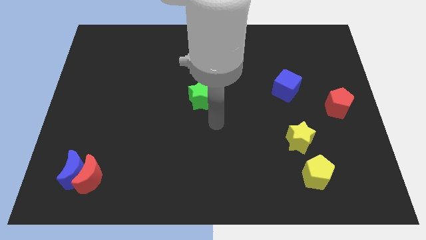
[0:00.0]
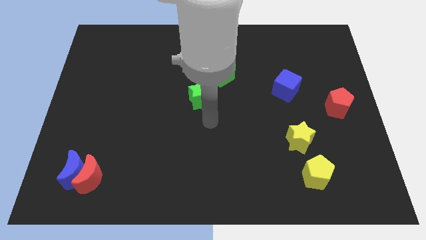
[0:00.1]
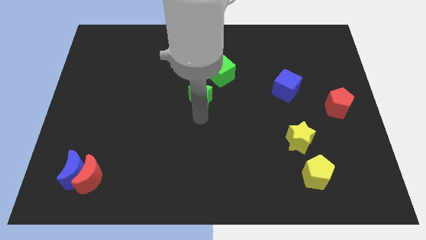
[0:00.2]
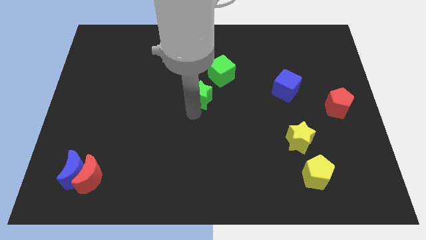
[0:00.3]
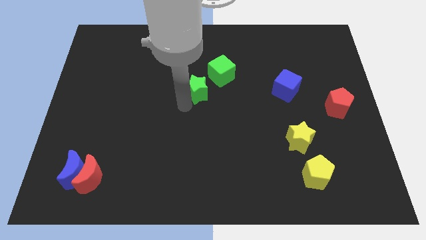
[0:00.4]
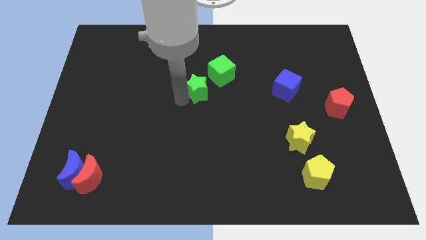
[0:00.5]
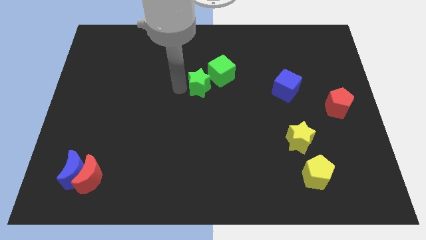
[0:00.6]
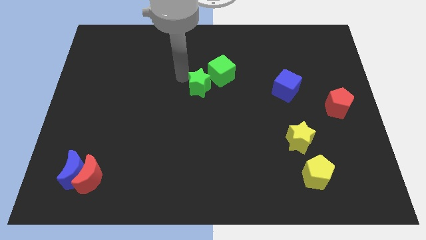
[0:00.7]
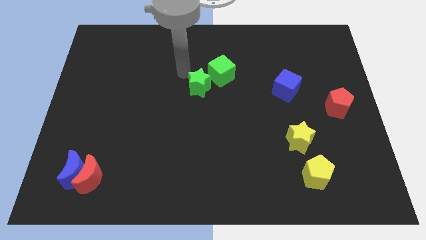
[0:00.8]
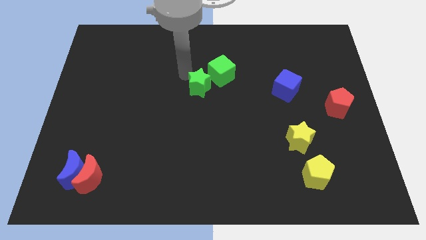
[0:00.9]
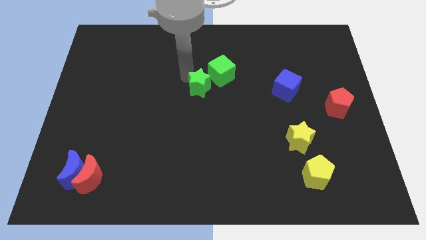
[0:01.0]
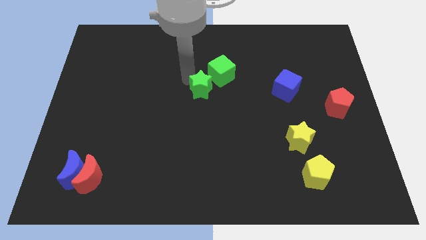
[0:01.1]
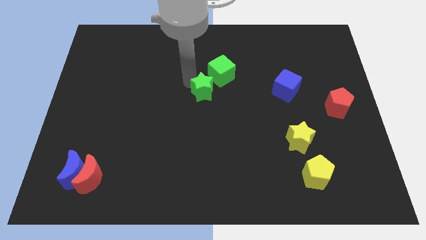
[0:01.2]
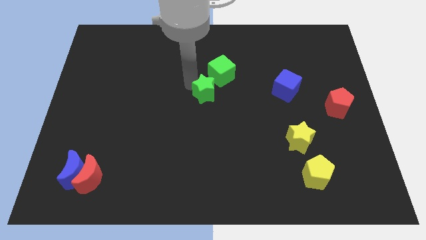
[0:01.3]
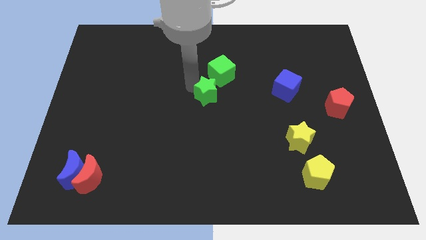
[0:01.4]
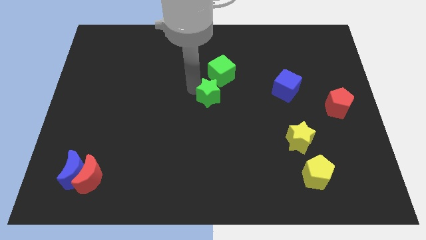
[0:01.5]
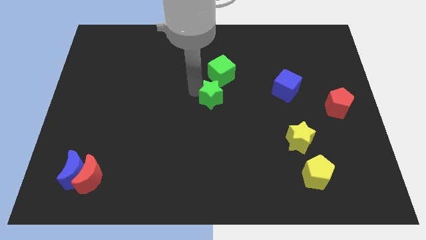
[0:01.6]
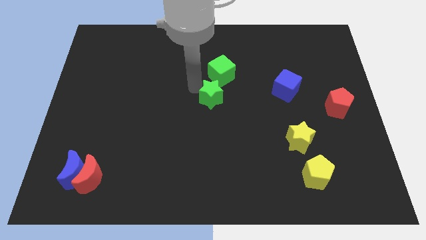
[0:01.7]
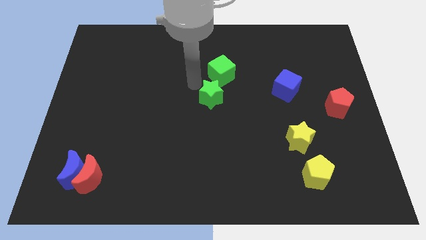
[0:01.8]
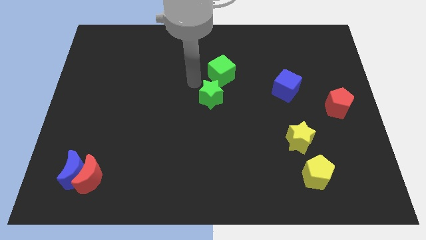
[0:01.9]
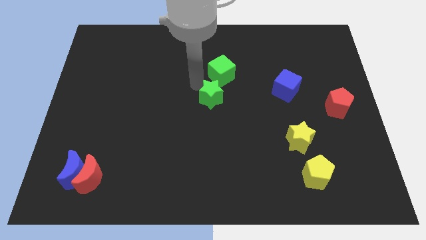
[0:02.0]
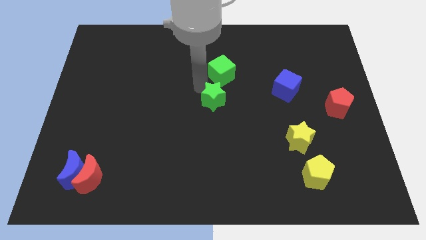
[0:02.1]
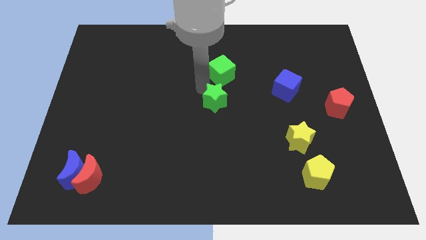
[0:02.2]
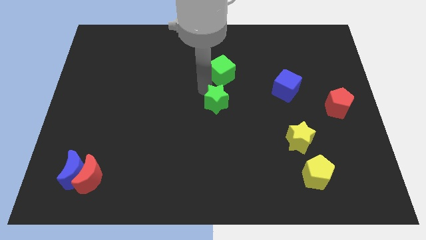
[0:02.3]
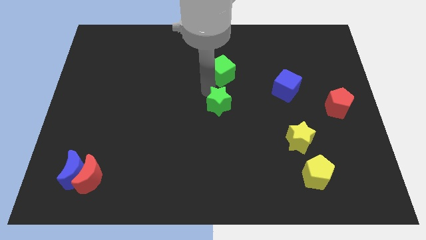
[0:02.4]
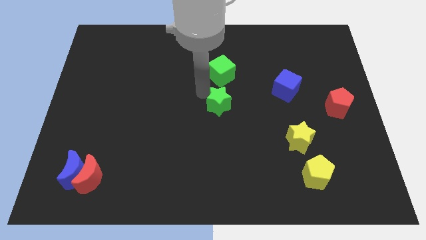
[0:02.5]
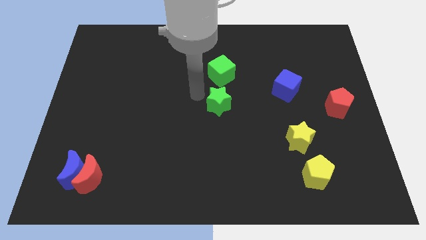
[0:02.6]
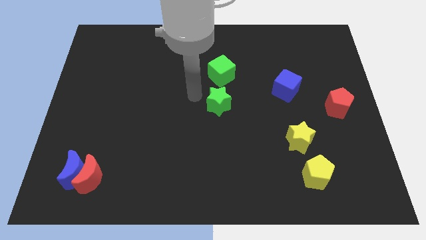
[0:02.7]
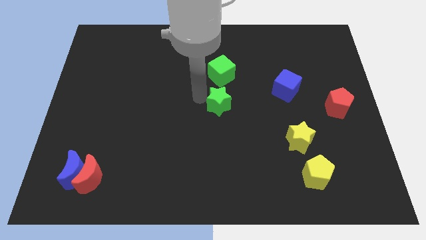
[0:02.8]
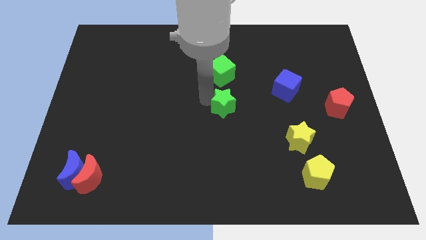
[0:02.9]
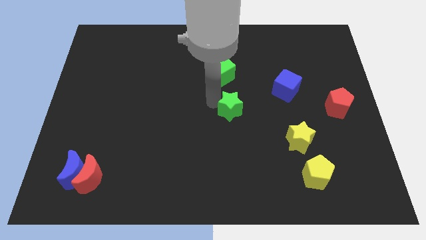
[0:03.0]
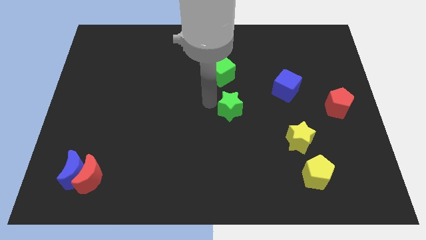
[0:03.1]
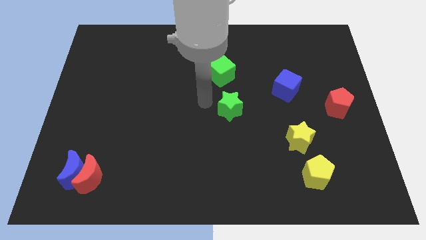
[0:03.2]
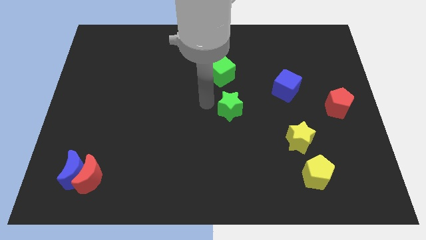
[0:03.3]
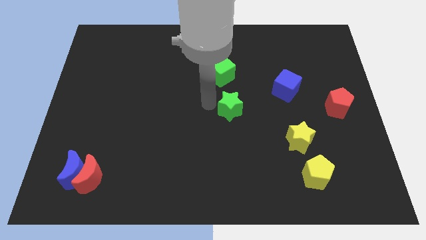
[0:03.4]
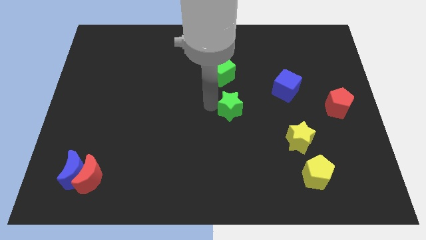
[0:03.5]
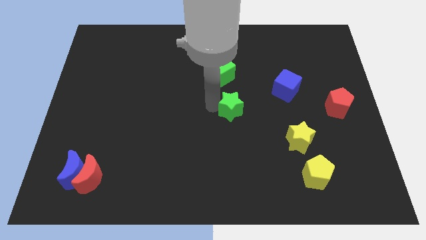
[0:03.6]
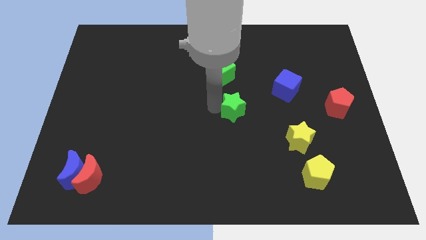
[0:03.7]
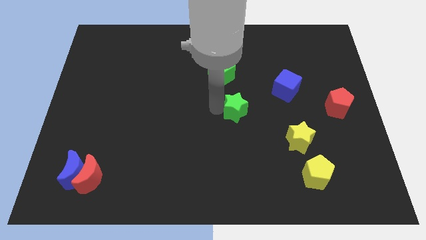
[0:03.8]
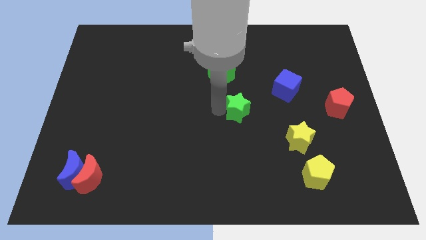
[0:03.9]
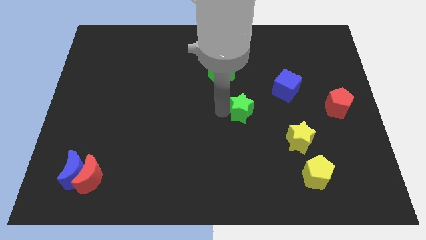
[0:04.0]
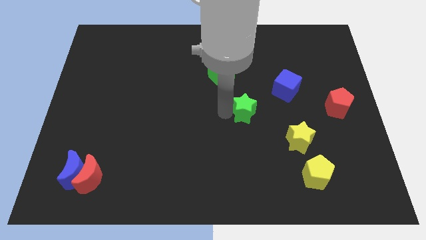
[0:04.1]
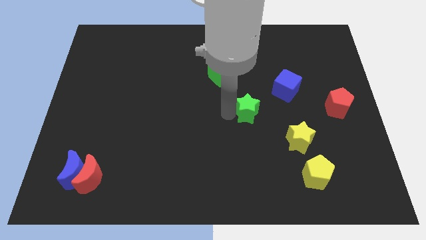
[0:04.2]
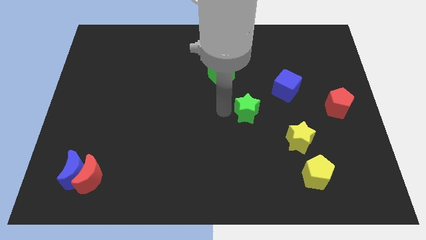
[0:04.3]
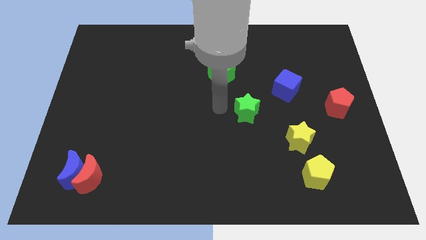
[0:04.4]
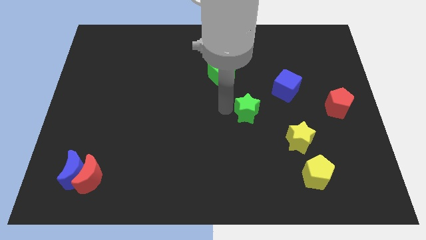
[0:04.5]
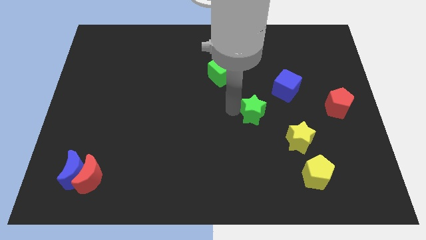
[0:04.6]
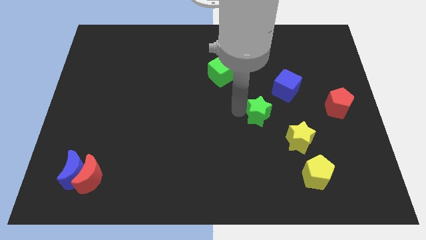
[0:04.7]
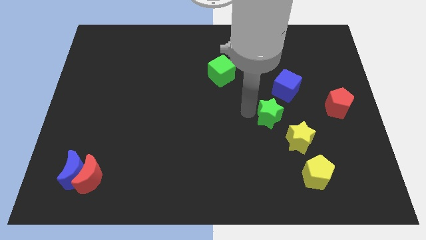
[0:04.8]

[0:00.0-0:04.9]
put the green star below the blue cube

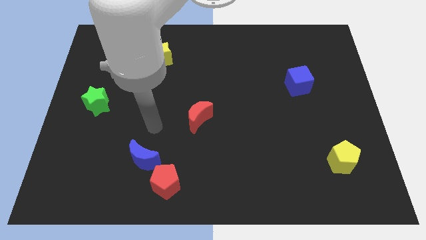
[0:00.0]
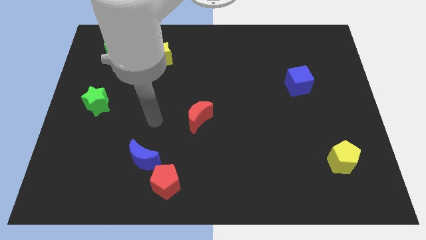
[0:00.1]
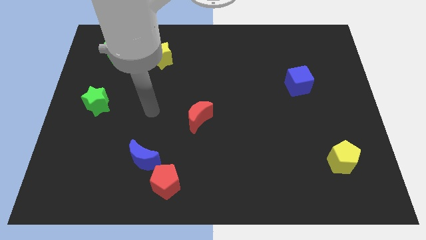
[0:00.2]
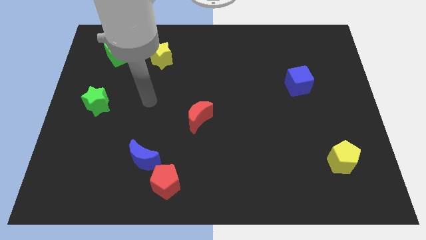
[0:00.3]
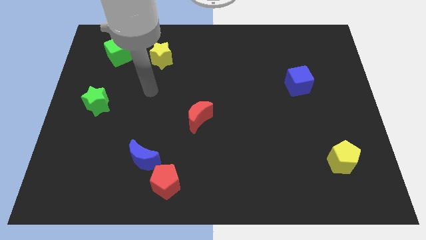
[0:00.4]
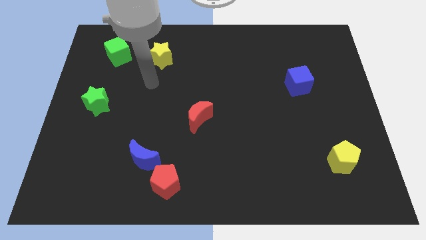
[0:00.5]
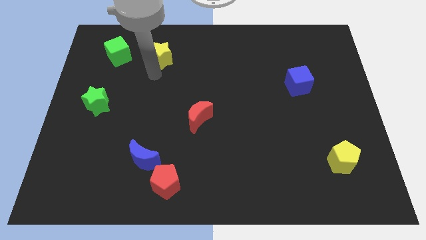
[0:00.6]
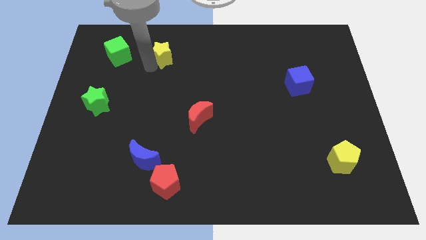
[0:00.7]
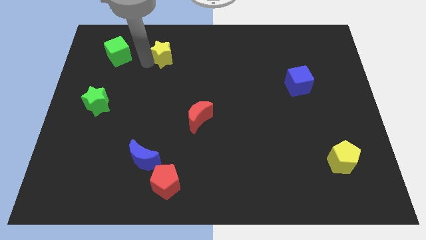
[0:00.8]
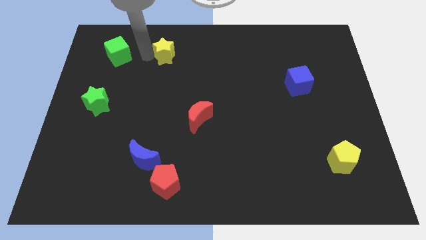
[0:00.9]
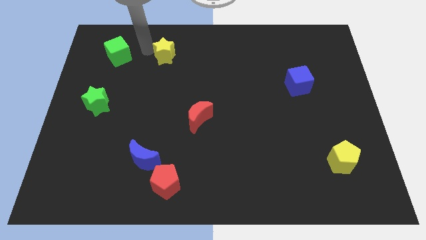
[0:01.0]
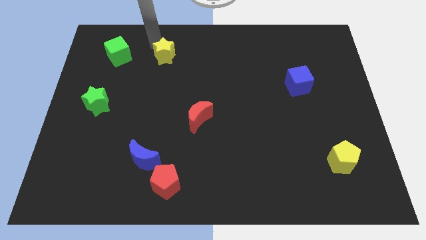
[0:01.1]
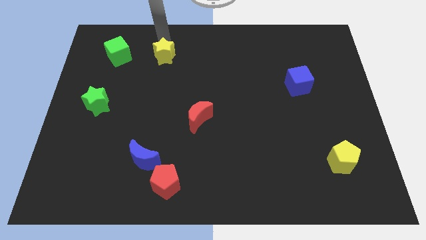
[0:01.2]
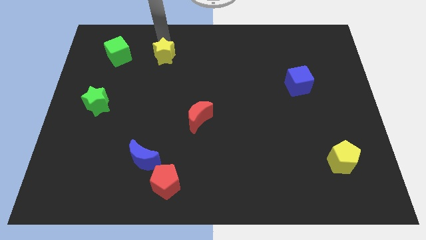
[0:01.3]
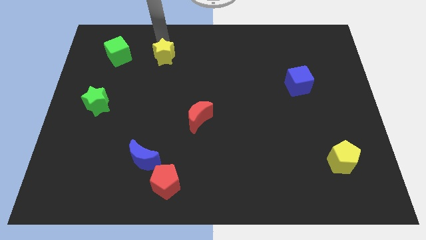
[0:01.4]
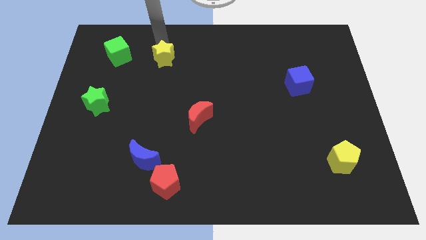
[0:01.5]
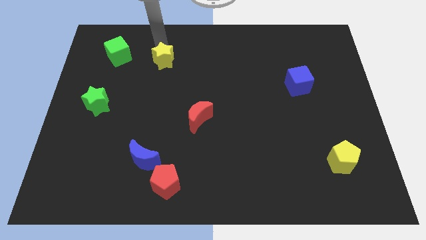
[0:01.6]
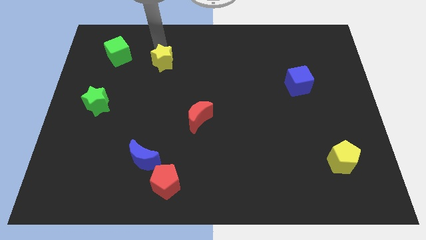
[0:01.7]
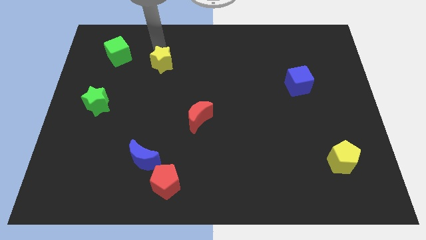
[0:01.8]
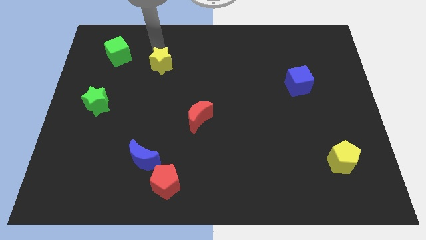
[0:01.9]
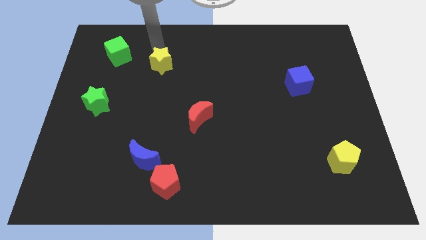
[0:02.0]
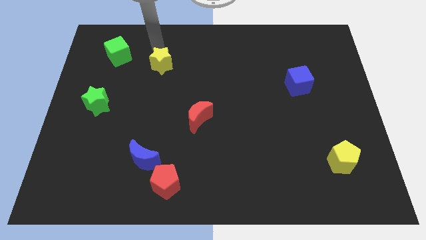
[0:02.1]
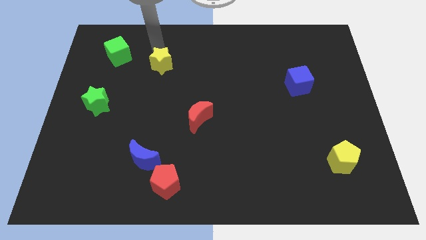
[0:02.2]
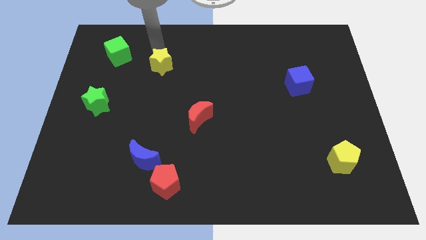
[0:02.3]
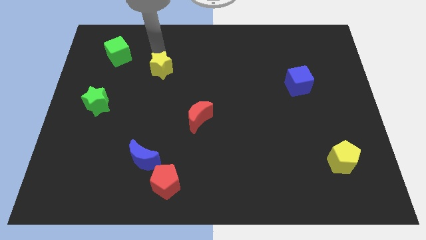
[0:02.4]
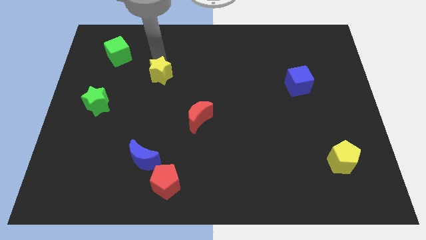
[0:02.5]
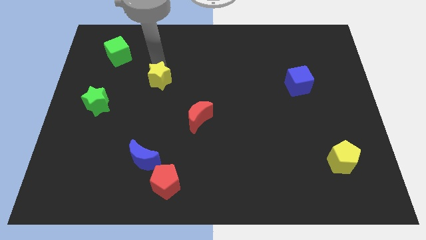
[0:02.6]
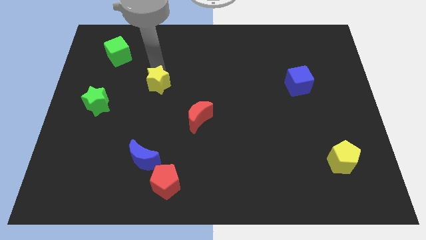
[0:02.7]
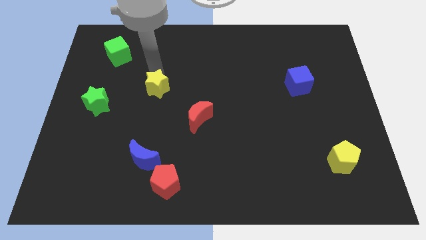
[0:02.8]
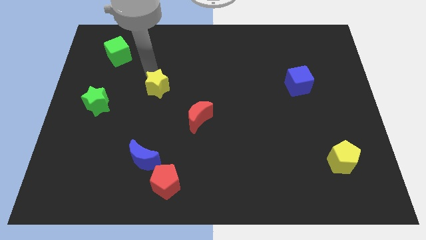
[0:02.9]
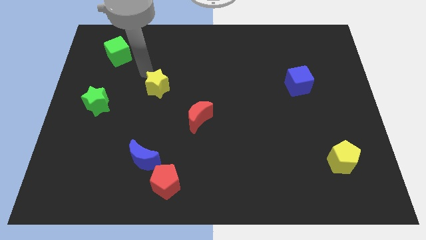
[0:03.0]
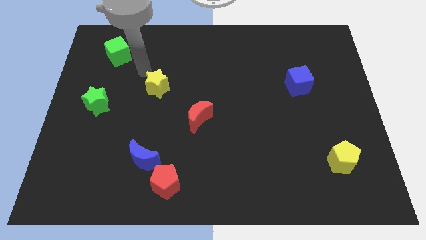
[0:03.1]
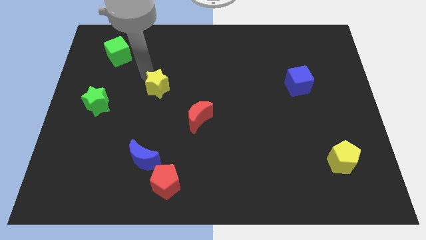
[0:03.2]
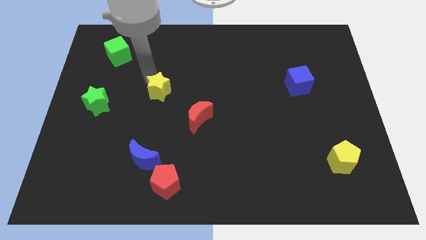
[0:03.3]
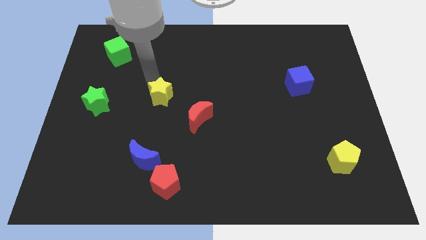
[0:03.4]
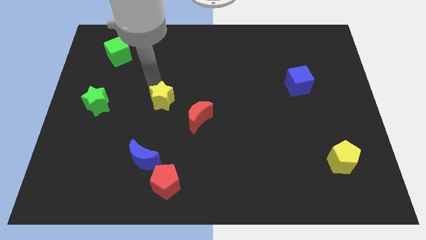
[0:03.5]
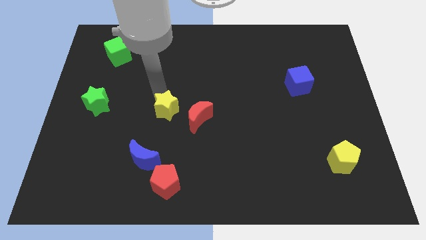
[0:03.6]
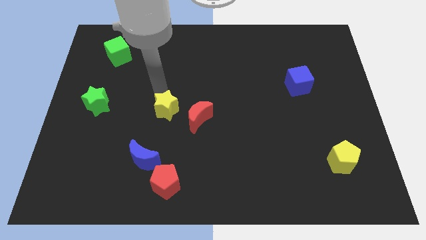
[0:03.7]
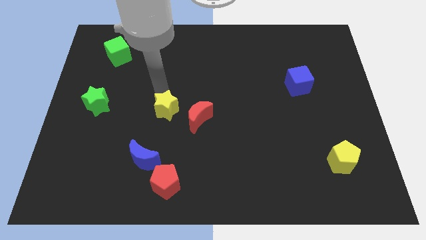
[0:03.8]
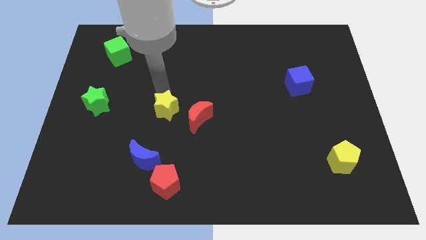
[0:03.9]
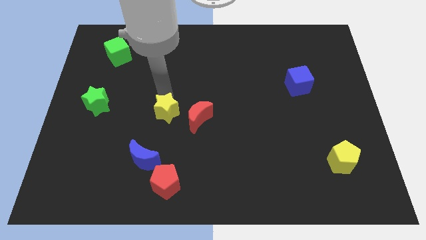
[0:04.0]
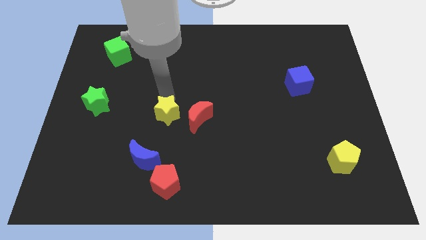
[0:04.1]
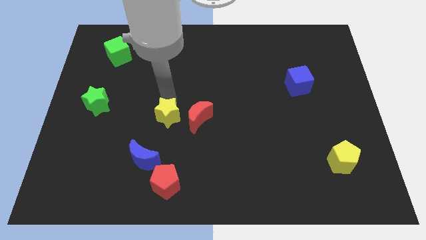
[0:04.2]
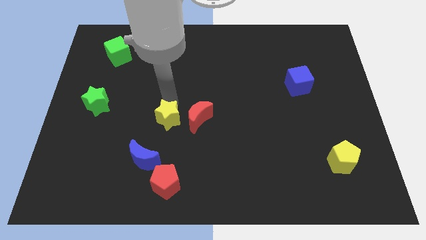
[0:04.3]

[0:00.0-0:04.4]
slide the yellow star diagonally down and to the left of the red moon
